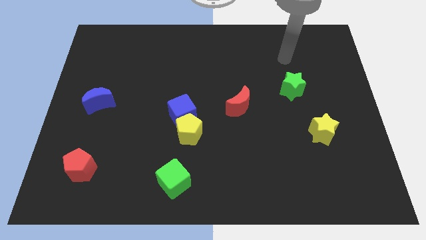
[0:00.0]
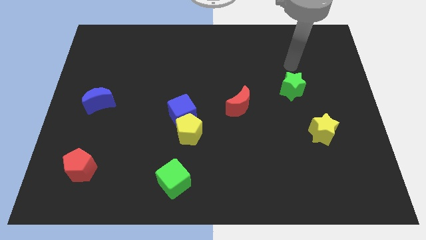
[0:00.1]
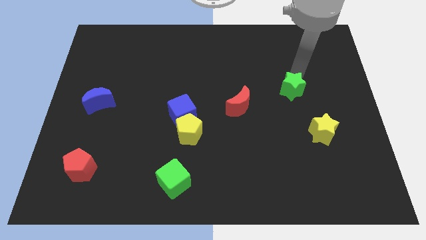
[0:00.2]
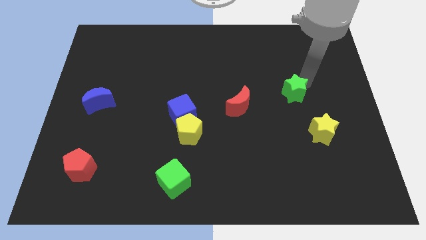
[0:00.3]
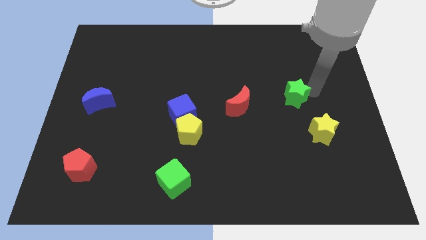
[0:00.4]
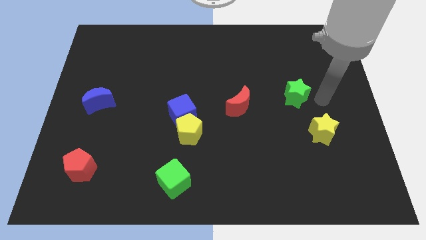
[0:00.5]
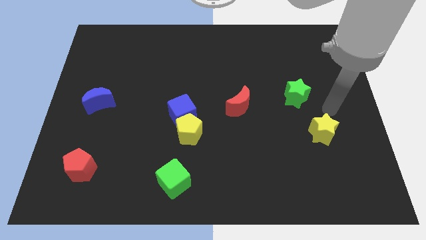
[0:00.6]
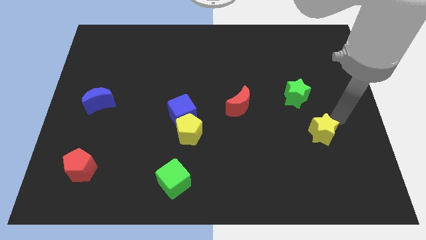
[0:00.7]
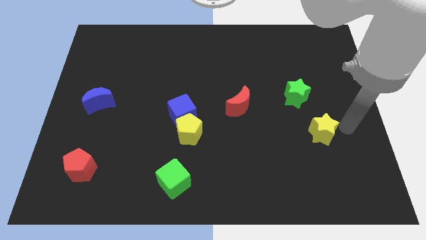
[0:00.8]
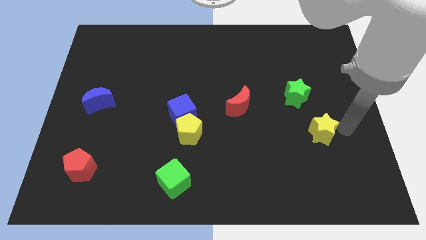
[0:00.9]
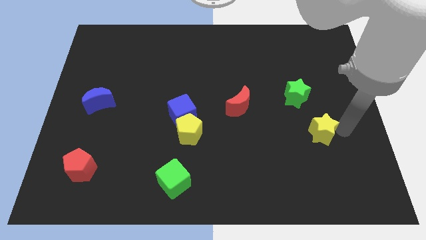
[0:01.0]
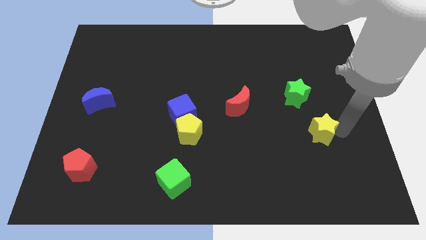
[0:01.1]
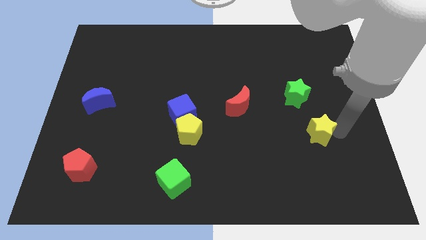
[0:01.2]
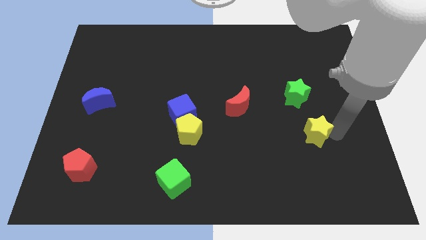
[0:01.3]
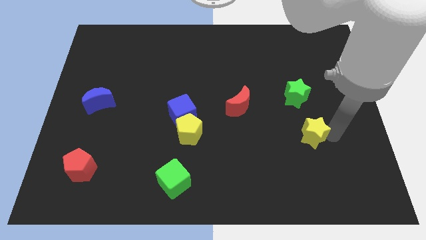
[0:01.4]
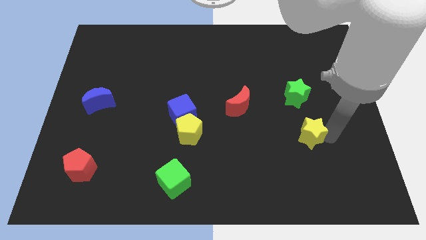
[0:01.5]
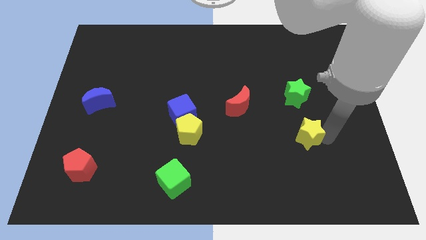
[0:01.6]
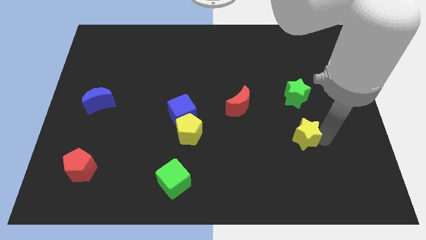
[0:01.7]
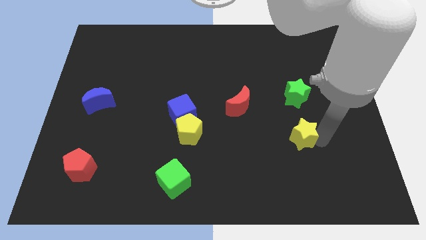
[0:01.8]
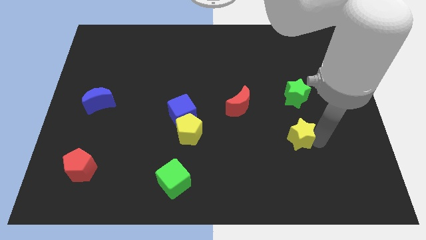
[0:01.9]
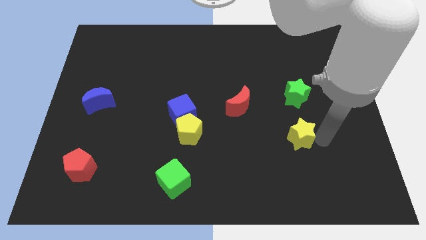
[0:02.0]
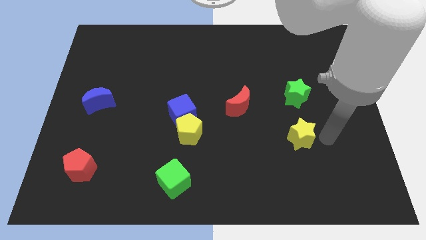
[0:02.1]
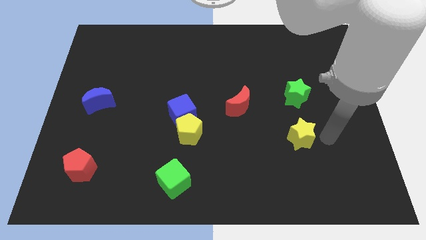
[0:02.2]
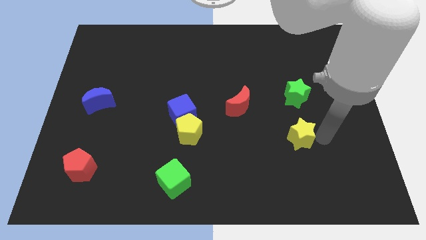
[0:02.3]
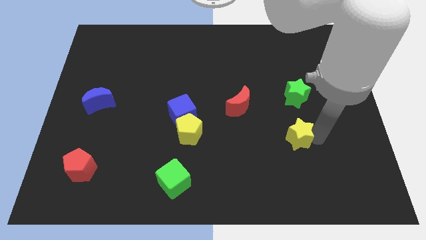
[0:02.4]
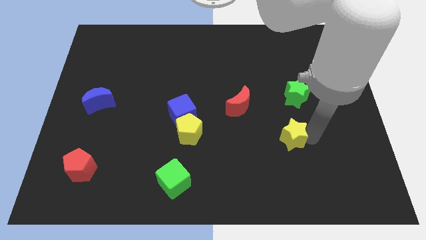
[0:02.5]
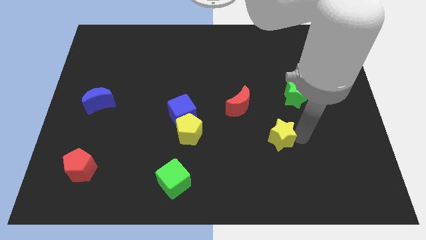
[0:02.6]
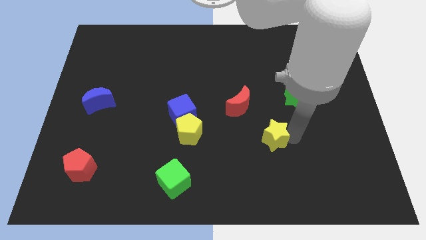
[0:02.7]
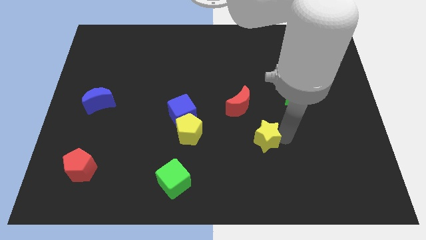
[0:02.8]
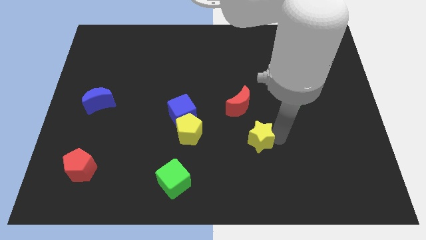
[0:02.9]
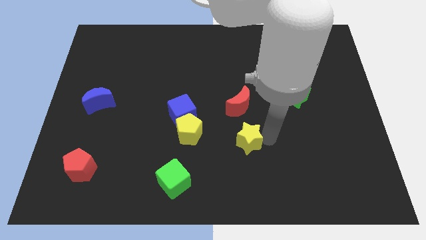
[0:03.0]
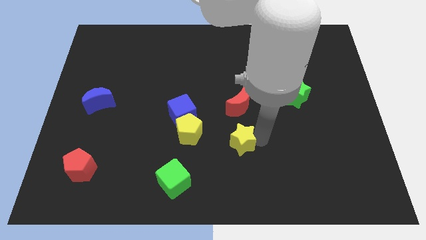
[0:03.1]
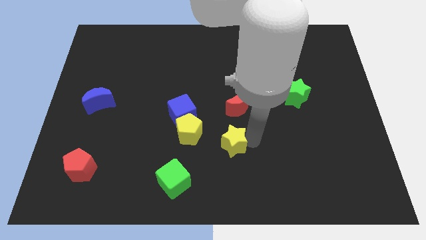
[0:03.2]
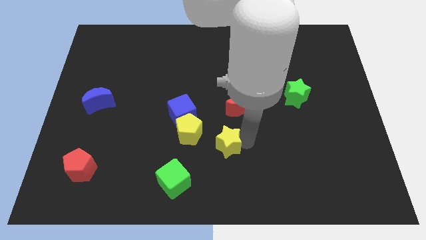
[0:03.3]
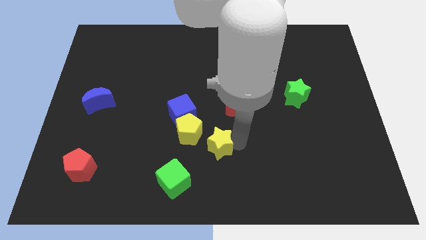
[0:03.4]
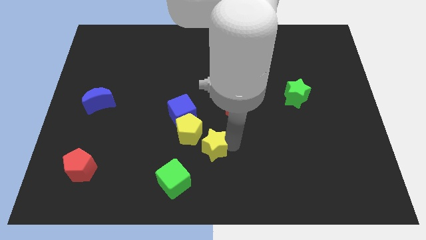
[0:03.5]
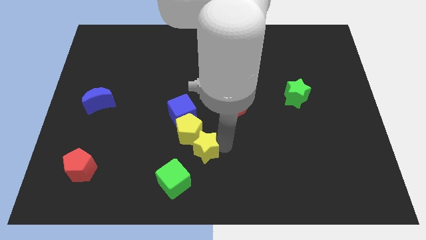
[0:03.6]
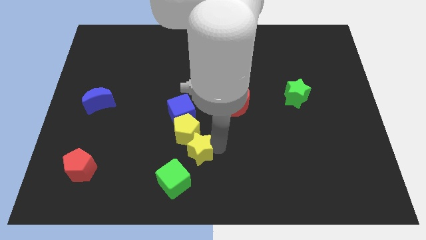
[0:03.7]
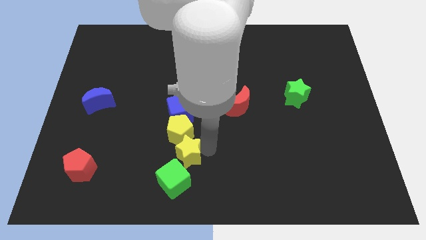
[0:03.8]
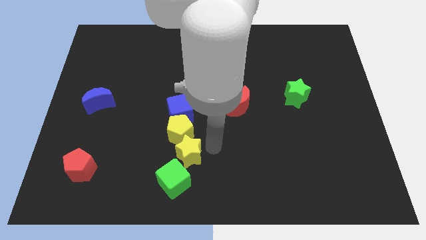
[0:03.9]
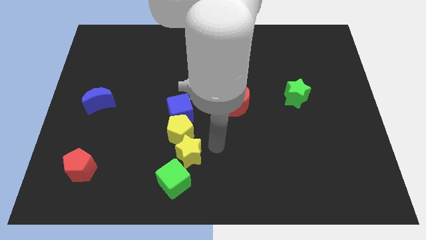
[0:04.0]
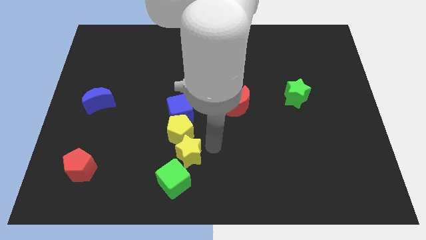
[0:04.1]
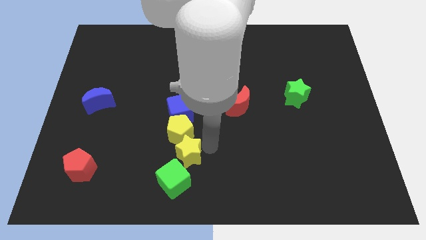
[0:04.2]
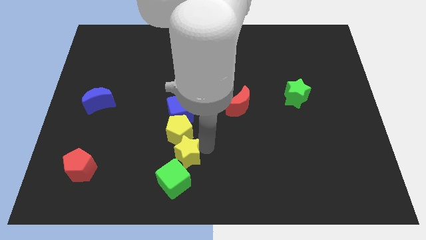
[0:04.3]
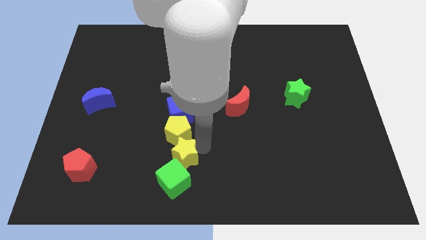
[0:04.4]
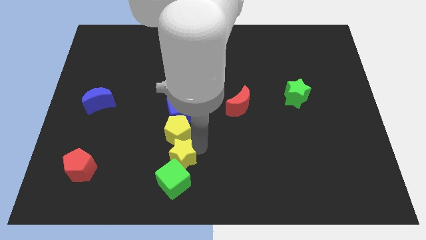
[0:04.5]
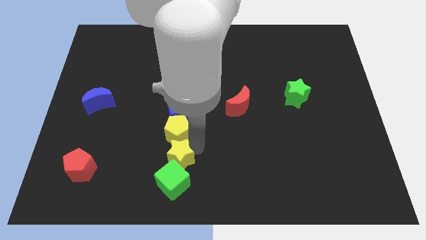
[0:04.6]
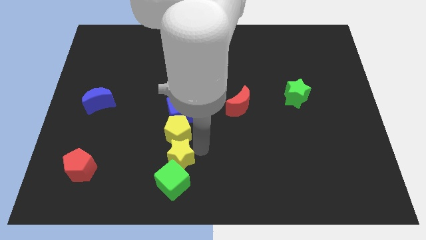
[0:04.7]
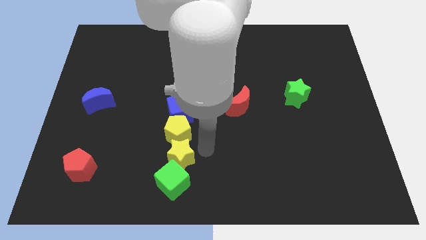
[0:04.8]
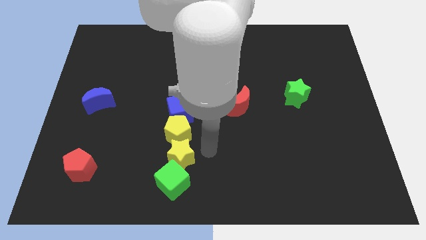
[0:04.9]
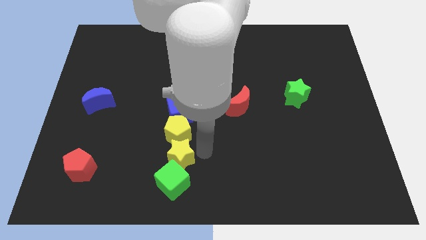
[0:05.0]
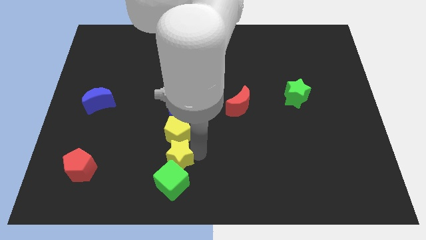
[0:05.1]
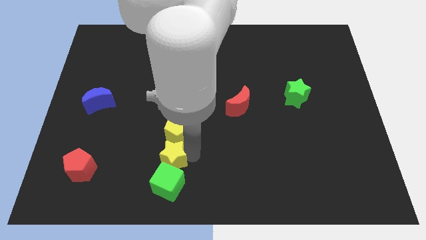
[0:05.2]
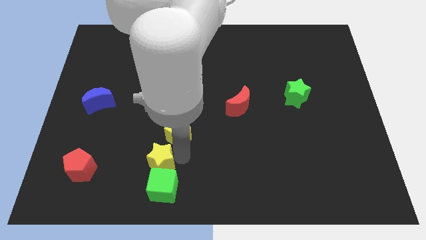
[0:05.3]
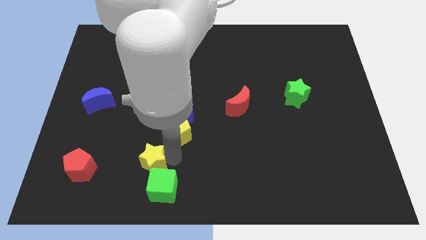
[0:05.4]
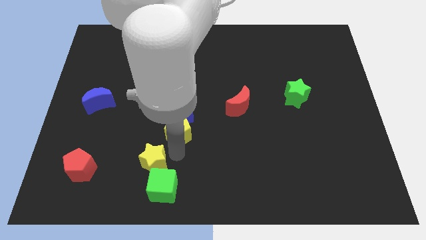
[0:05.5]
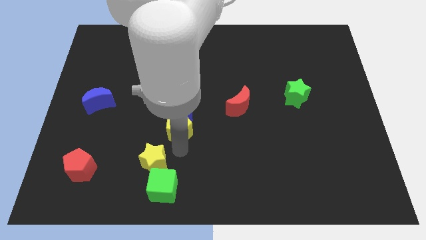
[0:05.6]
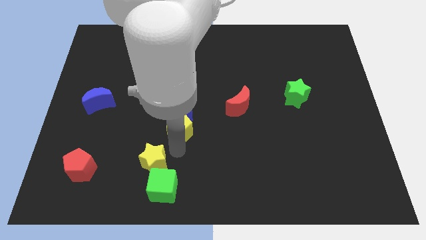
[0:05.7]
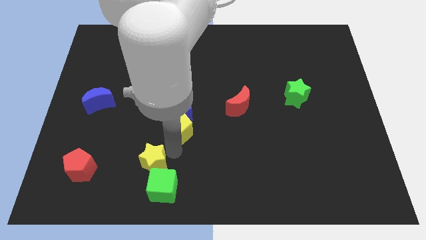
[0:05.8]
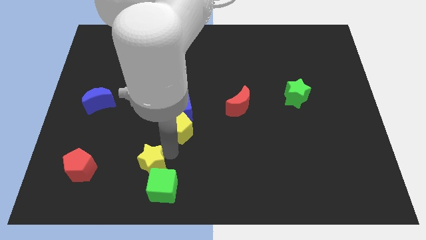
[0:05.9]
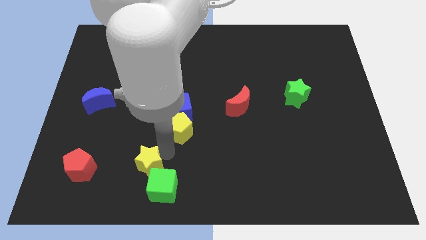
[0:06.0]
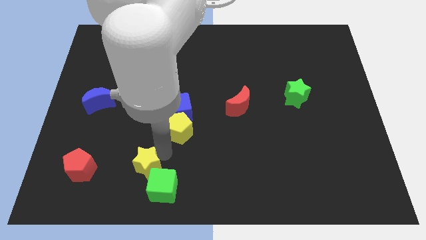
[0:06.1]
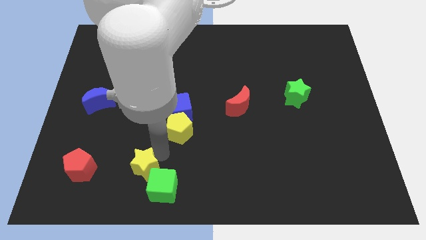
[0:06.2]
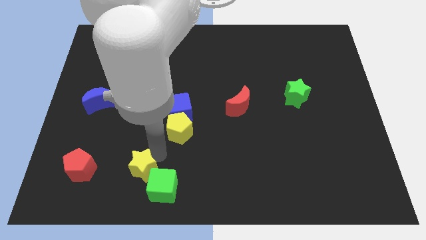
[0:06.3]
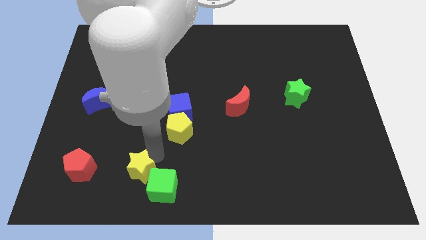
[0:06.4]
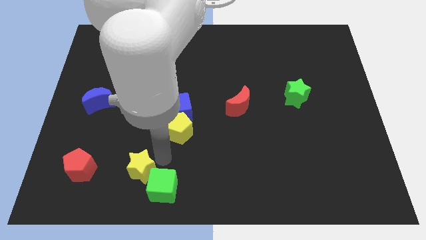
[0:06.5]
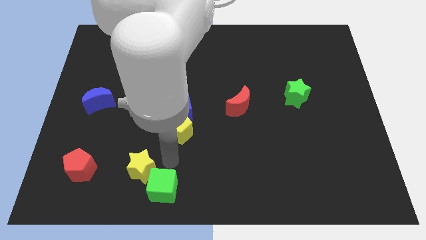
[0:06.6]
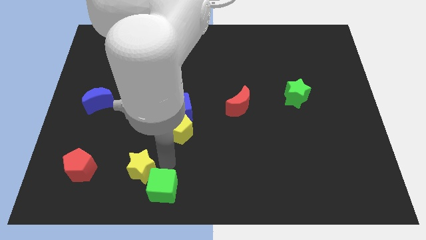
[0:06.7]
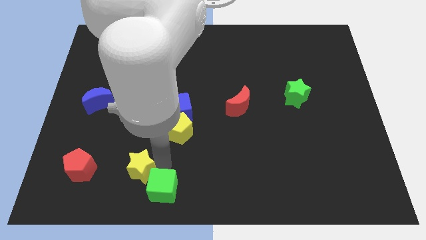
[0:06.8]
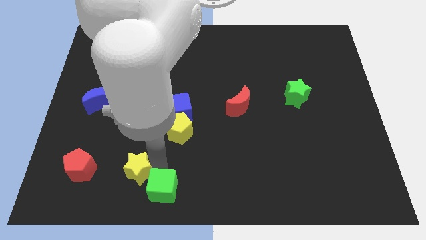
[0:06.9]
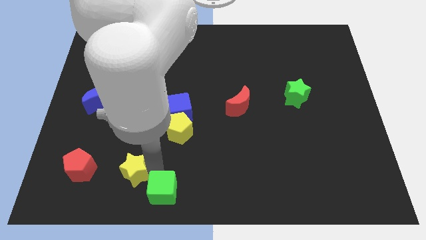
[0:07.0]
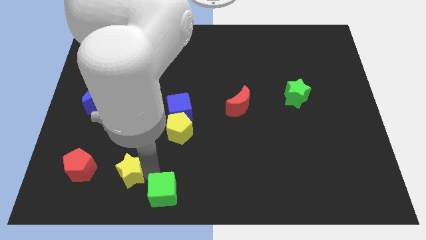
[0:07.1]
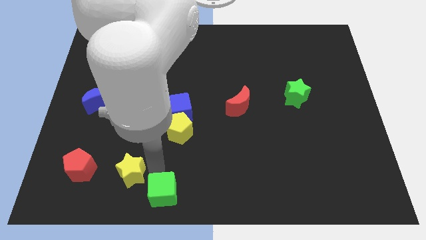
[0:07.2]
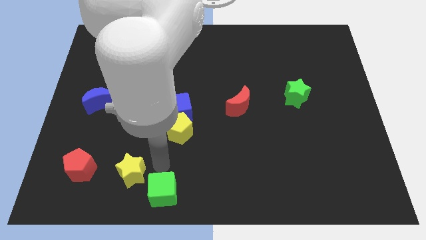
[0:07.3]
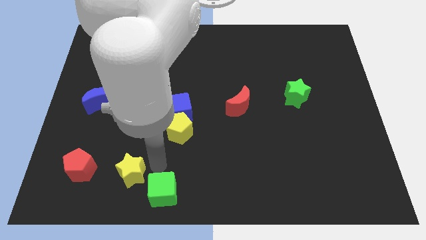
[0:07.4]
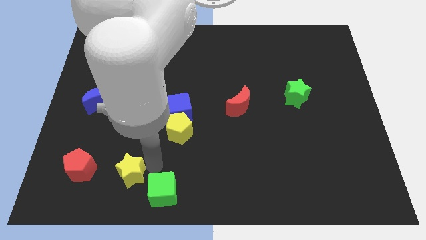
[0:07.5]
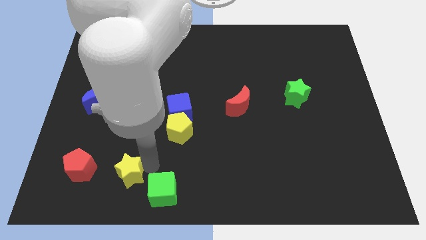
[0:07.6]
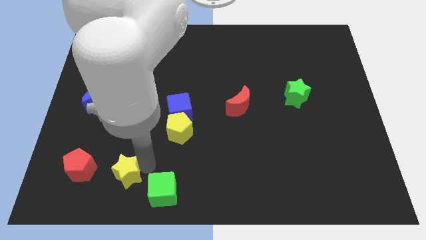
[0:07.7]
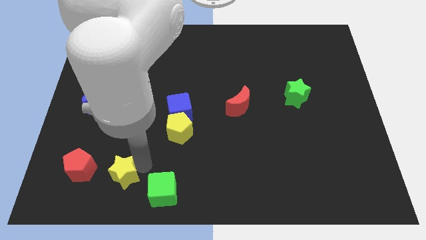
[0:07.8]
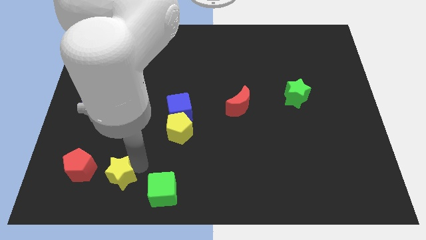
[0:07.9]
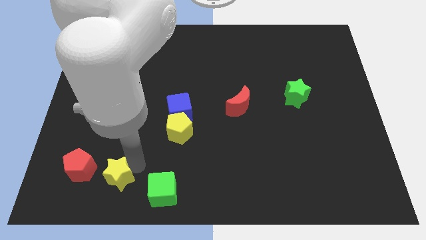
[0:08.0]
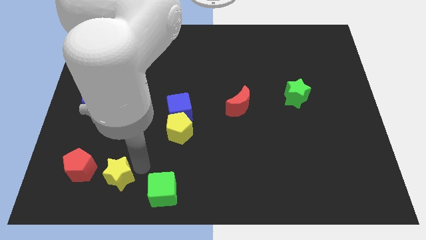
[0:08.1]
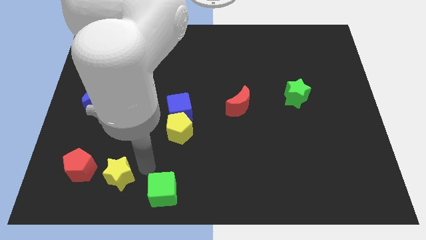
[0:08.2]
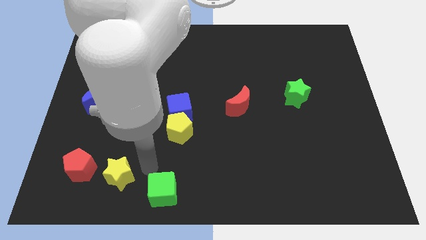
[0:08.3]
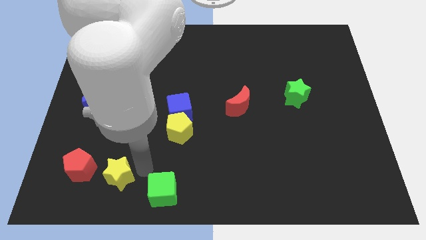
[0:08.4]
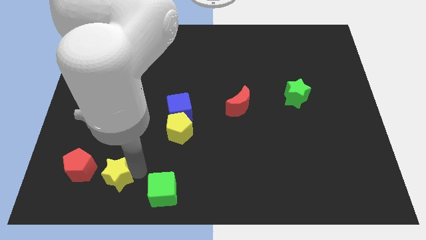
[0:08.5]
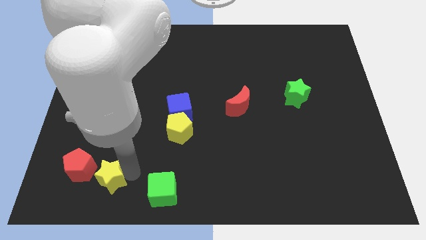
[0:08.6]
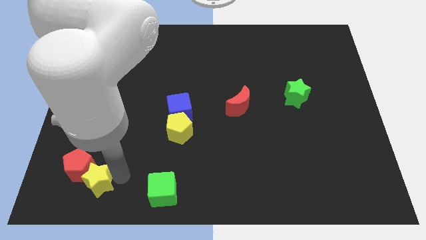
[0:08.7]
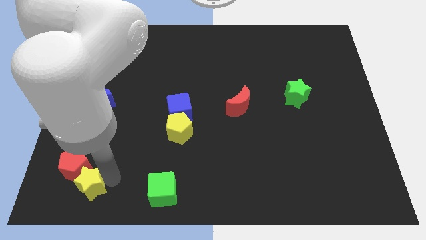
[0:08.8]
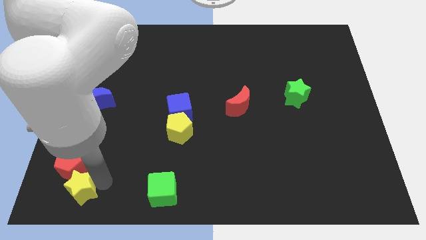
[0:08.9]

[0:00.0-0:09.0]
put the yellow star to the bottom left of the board
